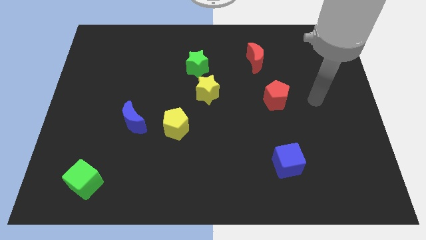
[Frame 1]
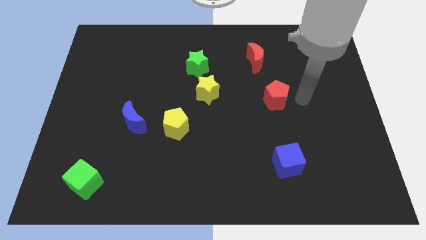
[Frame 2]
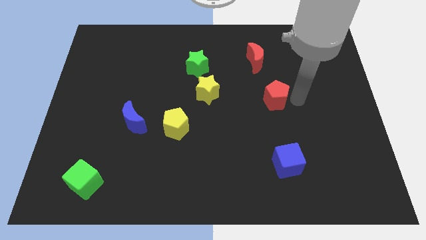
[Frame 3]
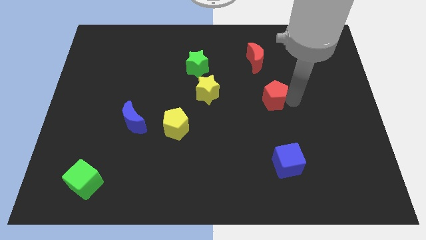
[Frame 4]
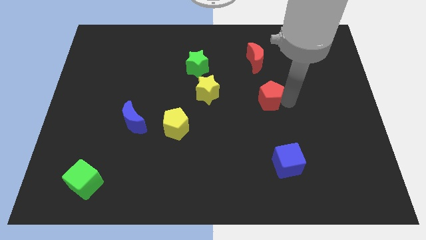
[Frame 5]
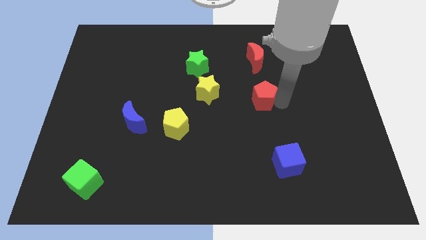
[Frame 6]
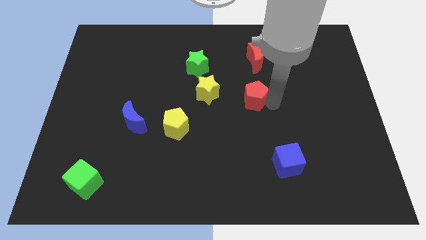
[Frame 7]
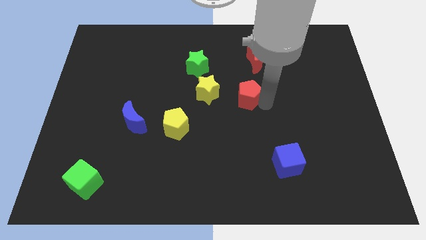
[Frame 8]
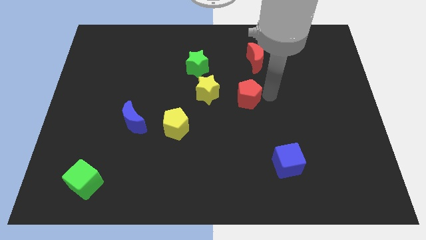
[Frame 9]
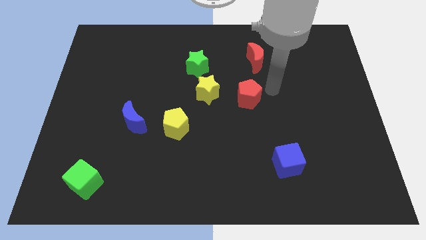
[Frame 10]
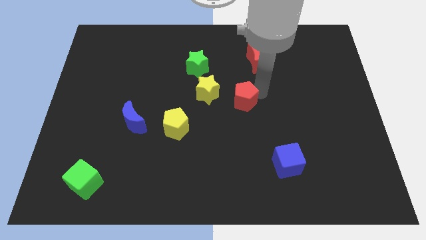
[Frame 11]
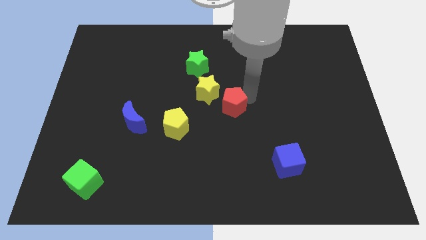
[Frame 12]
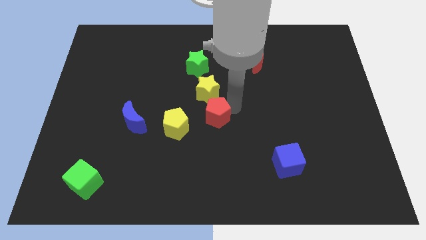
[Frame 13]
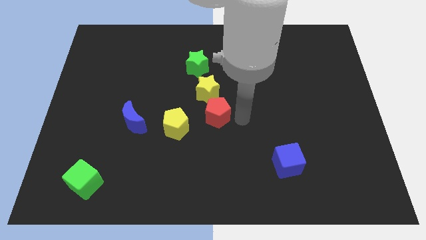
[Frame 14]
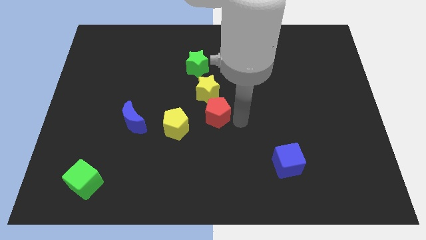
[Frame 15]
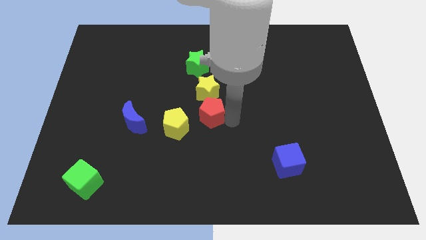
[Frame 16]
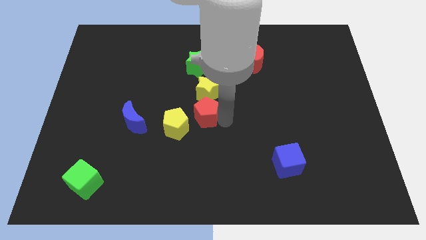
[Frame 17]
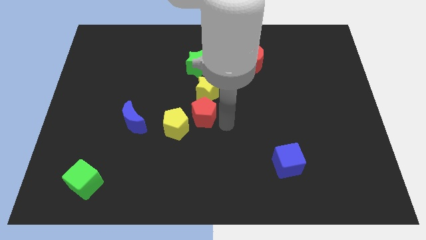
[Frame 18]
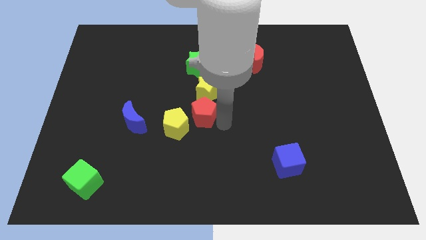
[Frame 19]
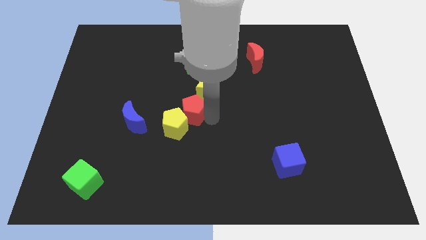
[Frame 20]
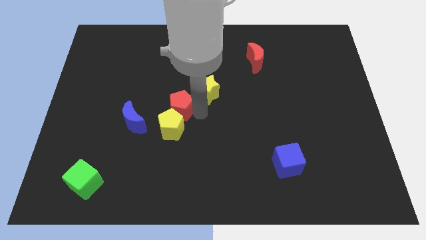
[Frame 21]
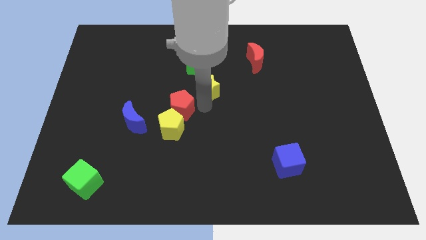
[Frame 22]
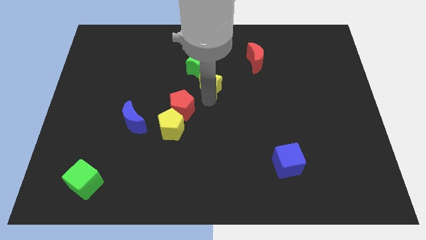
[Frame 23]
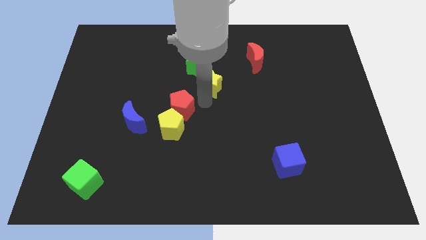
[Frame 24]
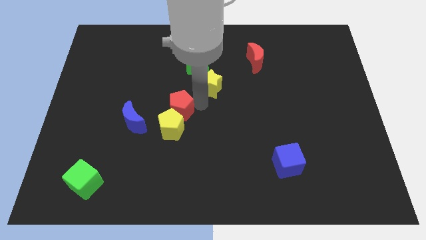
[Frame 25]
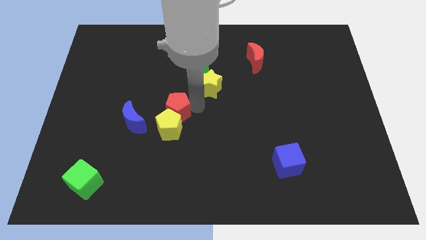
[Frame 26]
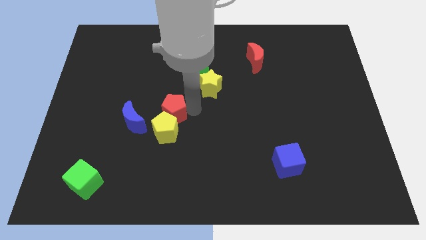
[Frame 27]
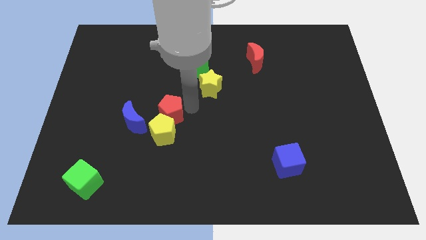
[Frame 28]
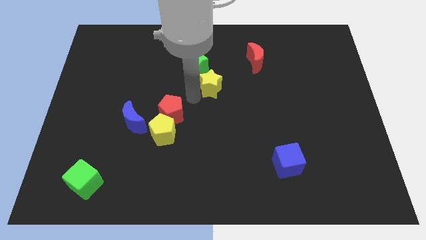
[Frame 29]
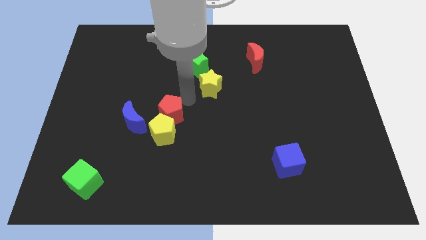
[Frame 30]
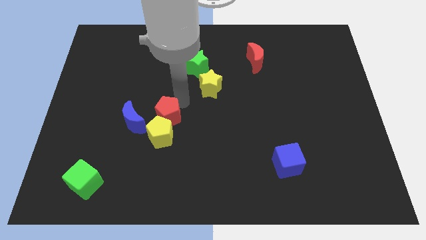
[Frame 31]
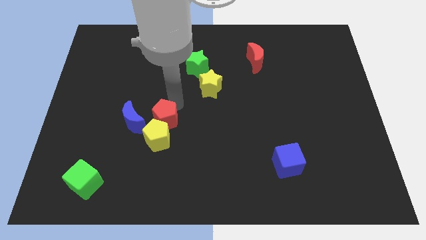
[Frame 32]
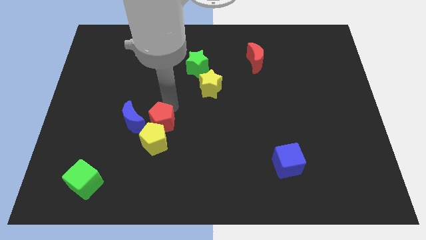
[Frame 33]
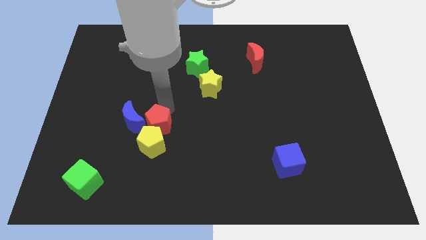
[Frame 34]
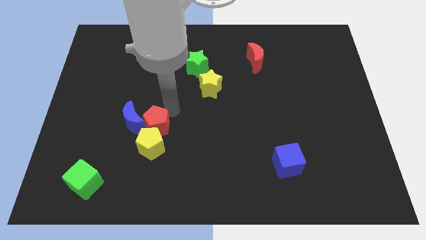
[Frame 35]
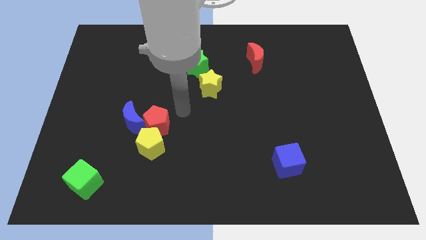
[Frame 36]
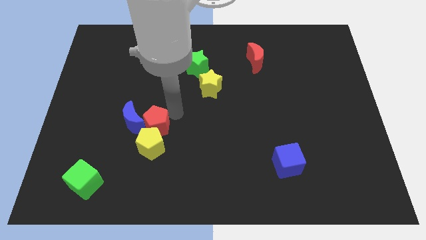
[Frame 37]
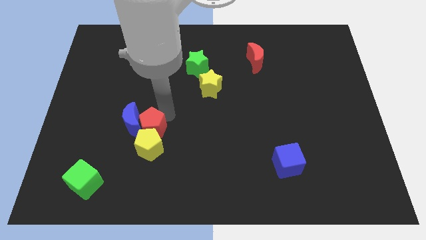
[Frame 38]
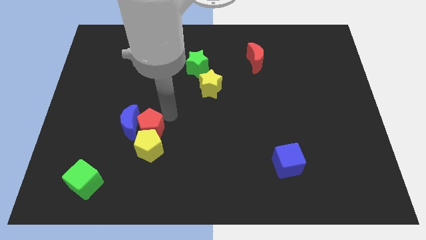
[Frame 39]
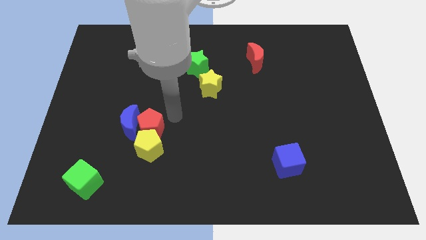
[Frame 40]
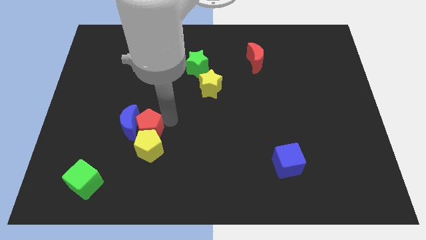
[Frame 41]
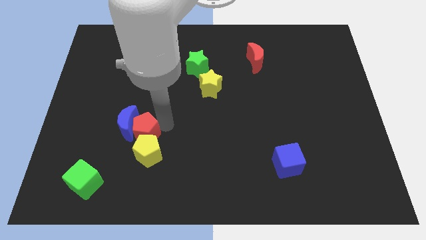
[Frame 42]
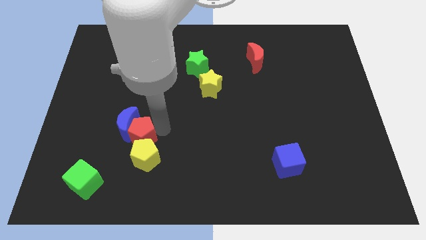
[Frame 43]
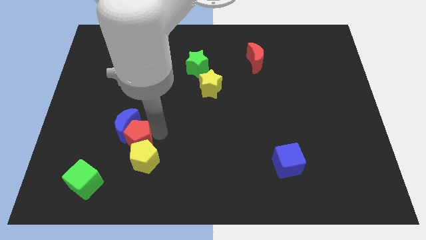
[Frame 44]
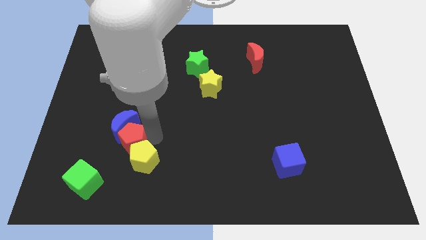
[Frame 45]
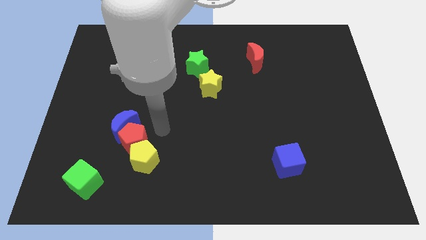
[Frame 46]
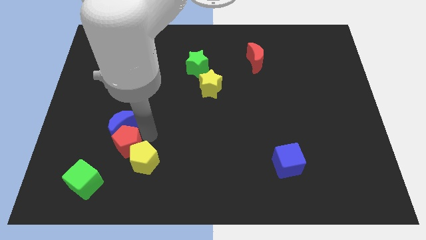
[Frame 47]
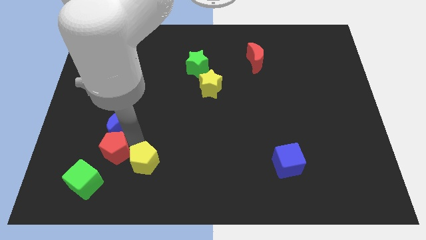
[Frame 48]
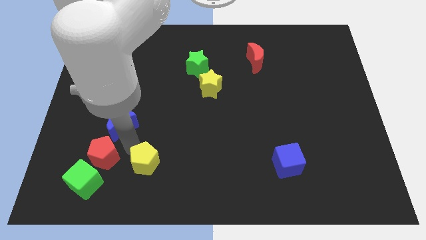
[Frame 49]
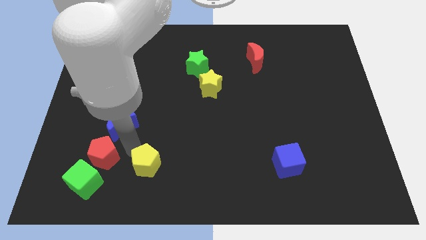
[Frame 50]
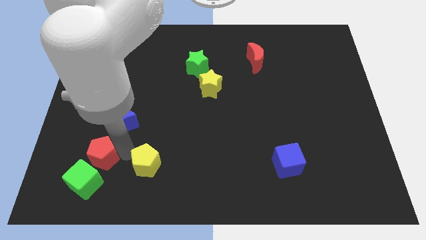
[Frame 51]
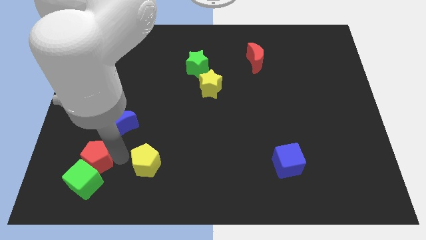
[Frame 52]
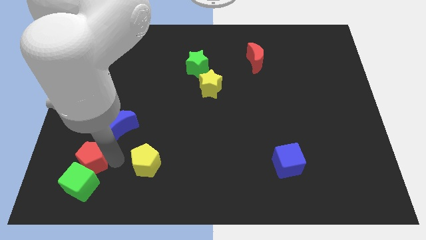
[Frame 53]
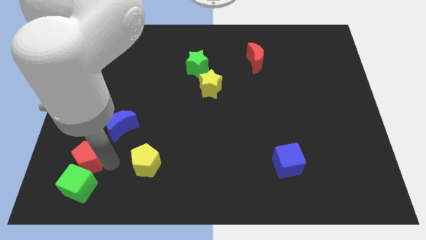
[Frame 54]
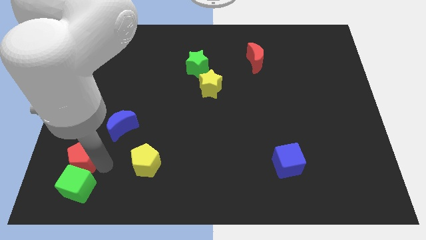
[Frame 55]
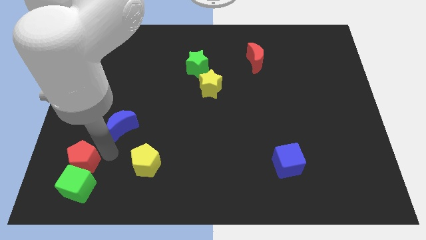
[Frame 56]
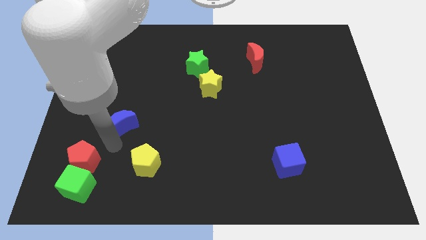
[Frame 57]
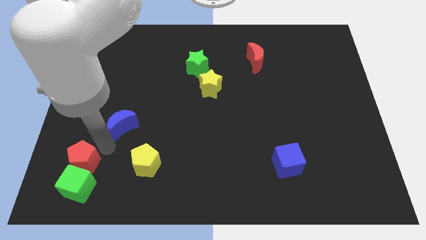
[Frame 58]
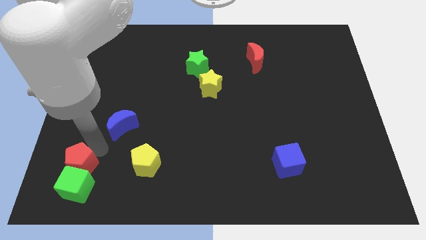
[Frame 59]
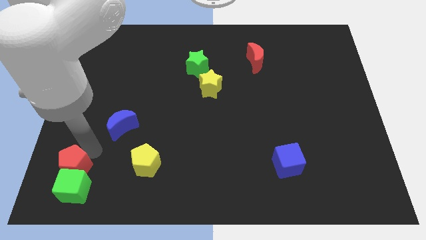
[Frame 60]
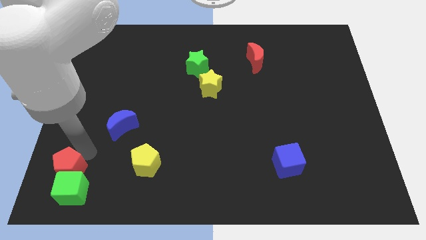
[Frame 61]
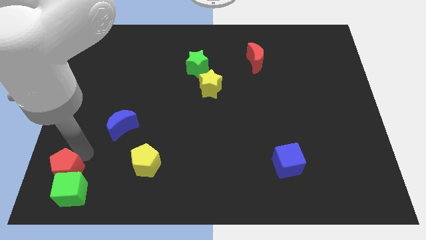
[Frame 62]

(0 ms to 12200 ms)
slide the red pentagon to the bottom left of the board

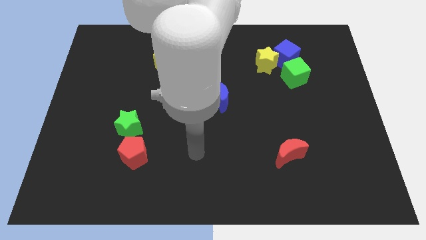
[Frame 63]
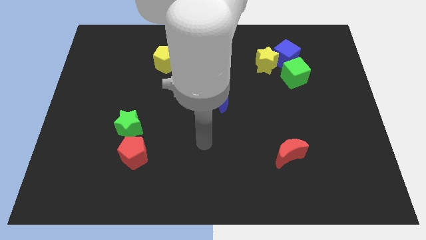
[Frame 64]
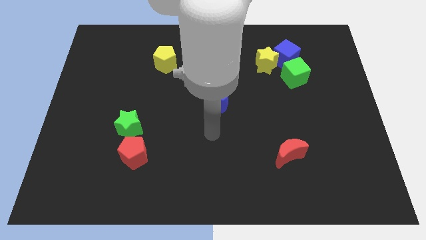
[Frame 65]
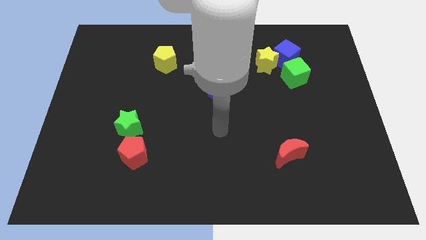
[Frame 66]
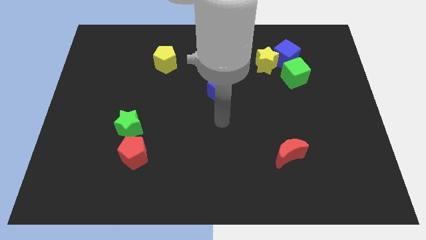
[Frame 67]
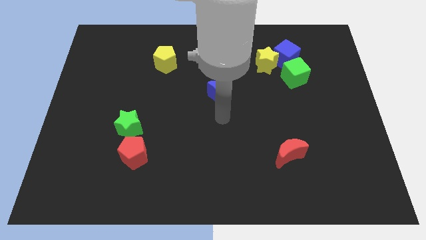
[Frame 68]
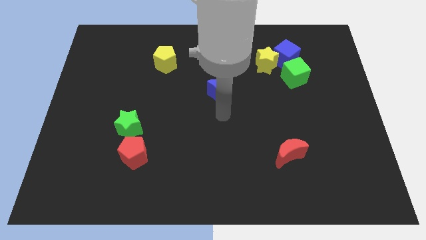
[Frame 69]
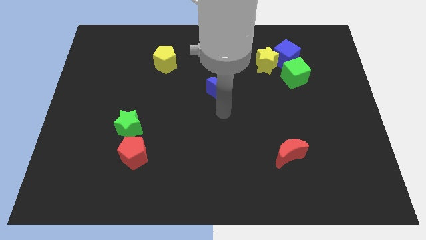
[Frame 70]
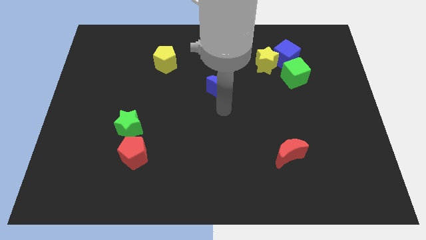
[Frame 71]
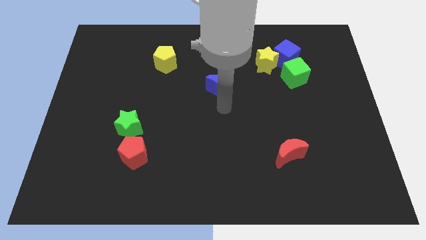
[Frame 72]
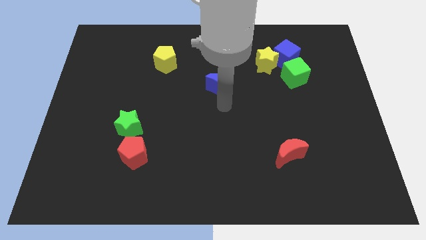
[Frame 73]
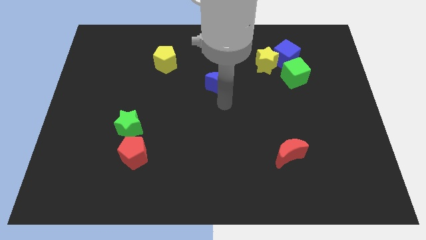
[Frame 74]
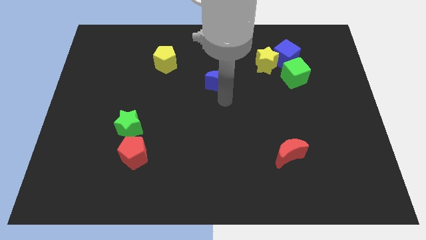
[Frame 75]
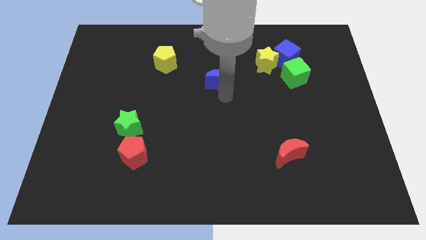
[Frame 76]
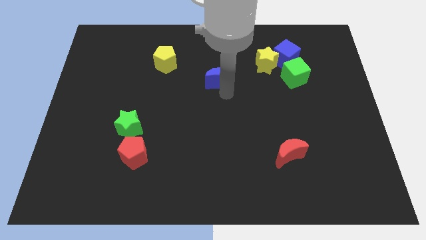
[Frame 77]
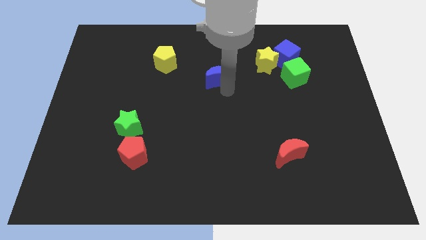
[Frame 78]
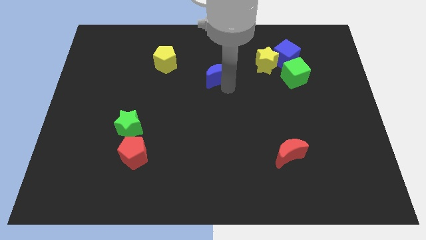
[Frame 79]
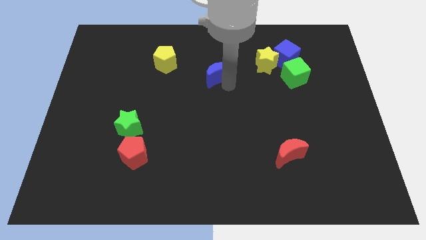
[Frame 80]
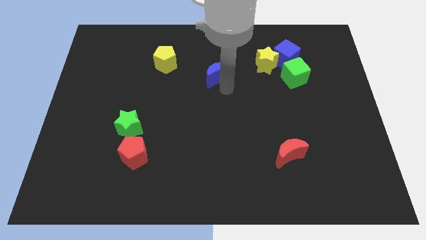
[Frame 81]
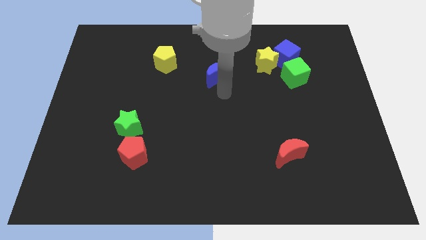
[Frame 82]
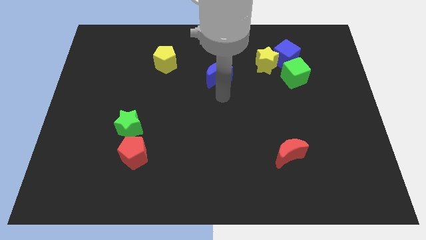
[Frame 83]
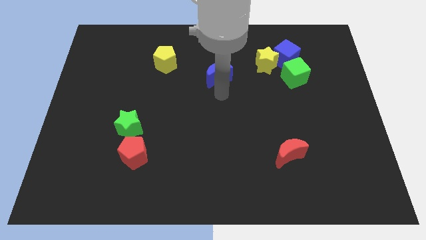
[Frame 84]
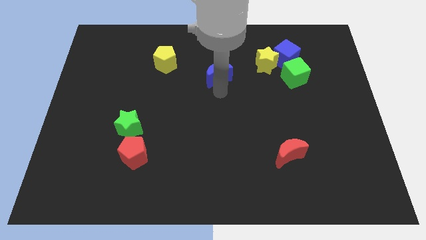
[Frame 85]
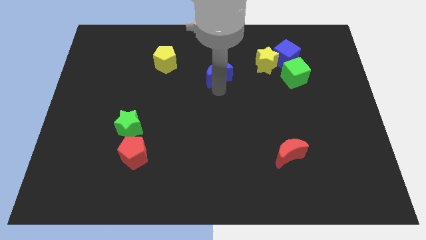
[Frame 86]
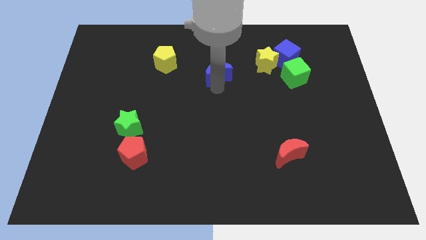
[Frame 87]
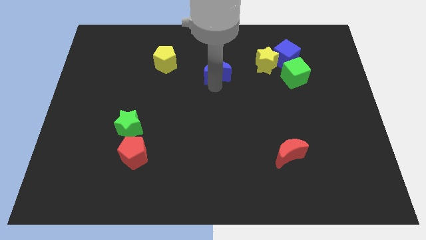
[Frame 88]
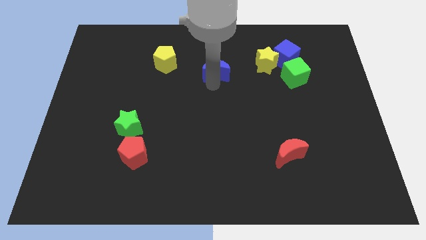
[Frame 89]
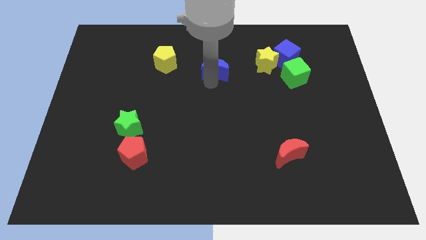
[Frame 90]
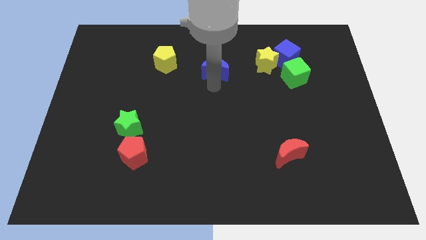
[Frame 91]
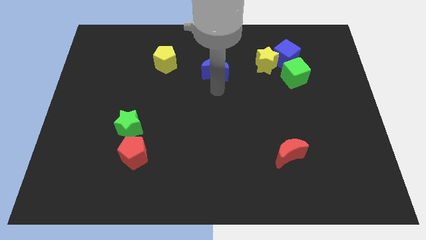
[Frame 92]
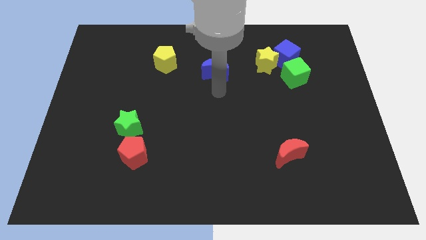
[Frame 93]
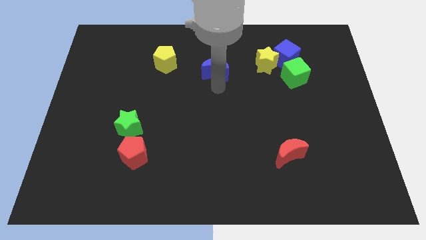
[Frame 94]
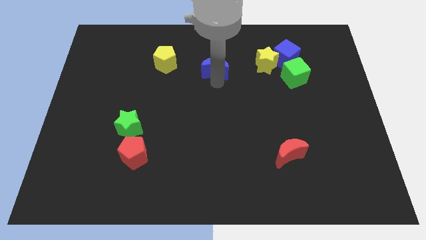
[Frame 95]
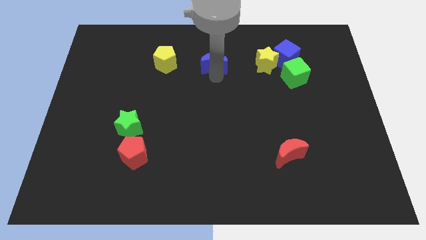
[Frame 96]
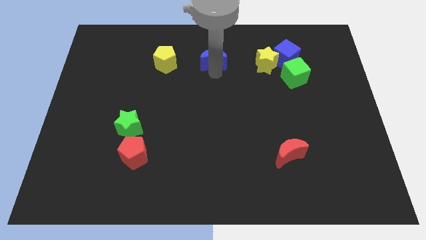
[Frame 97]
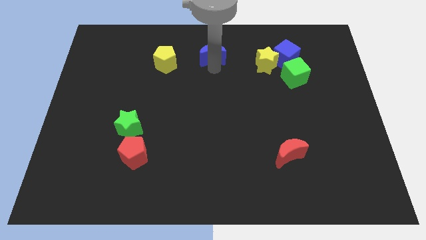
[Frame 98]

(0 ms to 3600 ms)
push the blue moon to the towards your base
